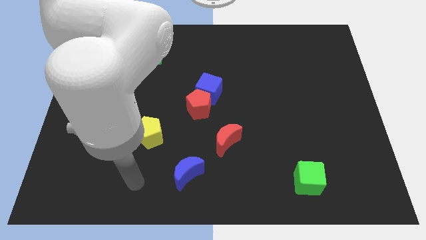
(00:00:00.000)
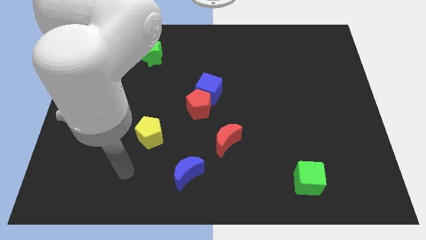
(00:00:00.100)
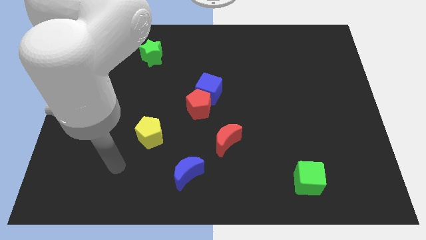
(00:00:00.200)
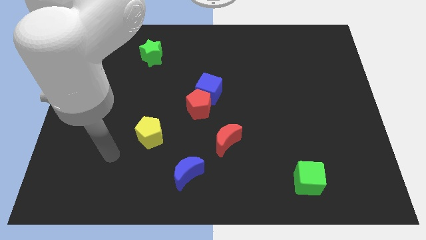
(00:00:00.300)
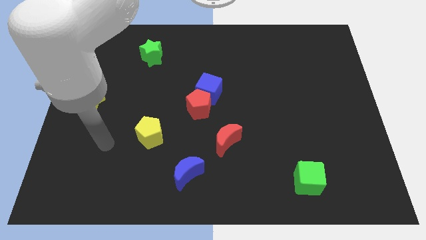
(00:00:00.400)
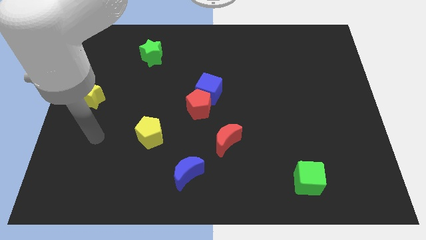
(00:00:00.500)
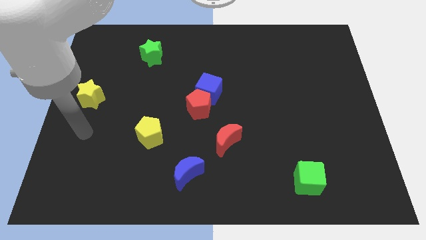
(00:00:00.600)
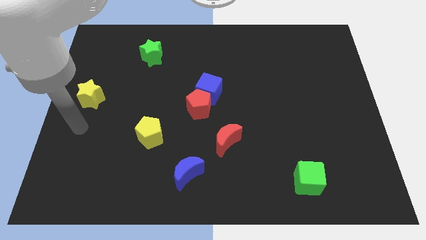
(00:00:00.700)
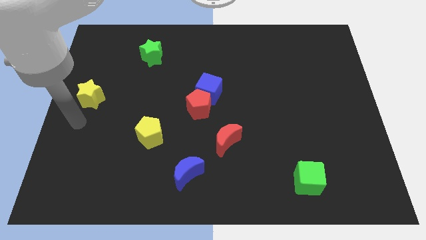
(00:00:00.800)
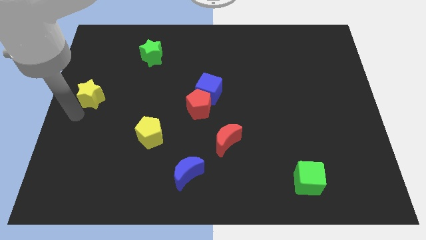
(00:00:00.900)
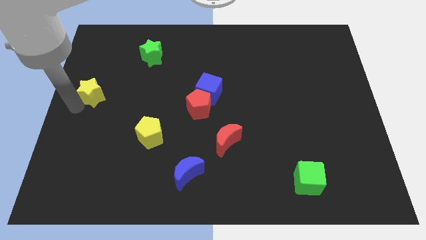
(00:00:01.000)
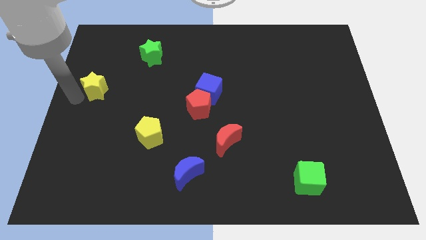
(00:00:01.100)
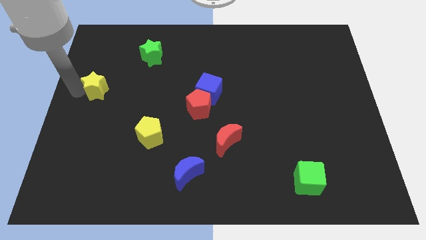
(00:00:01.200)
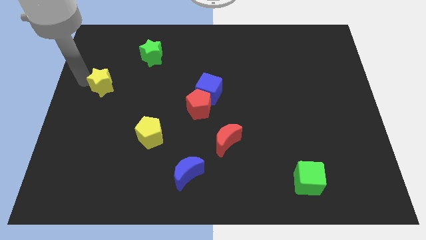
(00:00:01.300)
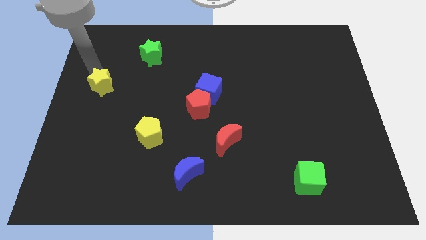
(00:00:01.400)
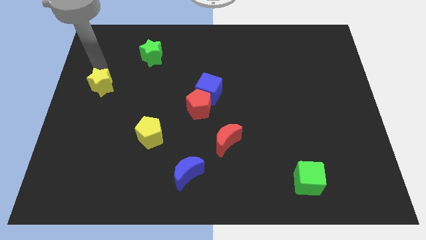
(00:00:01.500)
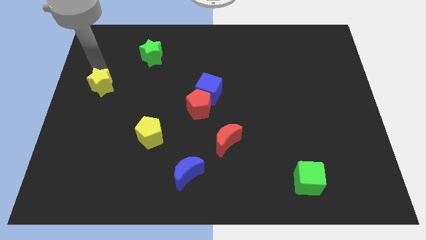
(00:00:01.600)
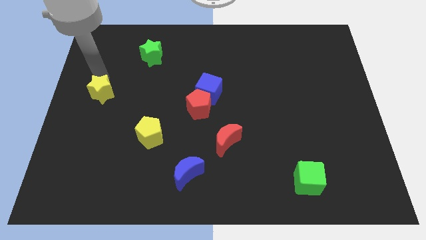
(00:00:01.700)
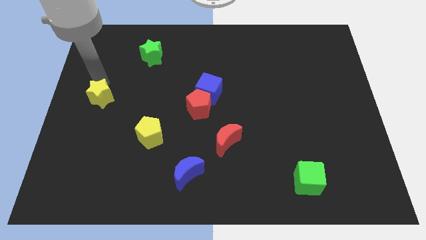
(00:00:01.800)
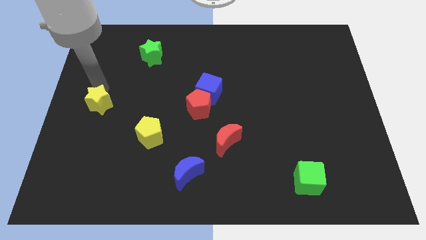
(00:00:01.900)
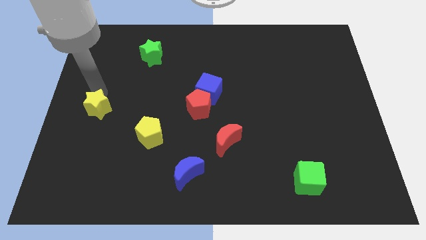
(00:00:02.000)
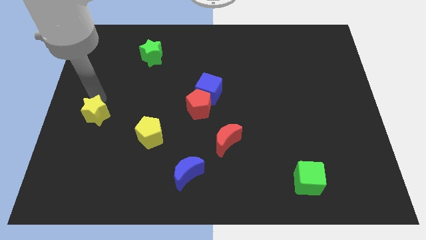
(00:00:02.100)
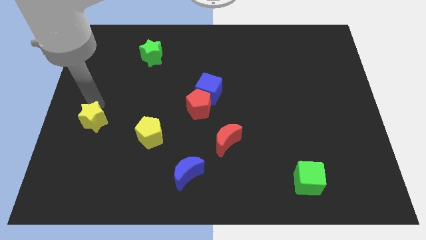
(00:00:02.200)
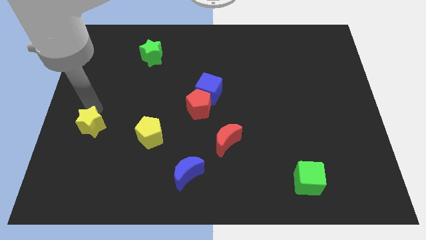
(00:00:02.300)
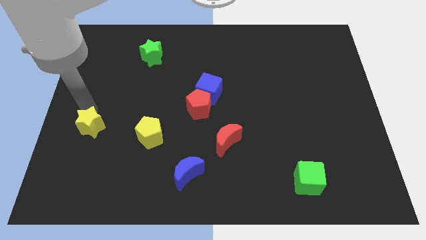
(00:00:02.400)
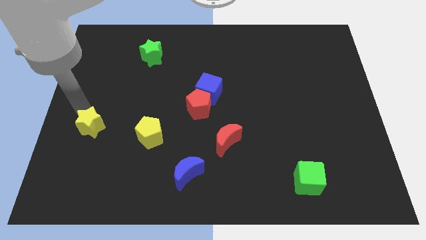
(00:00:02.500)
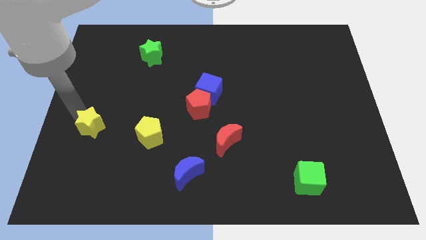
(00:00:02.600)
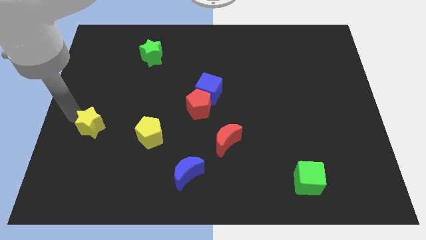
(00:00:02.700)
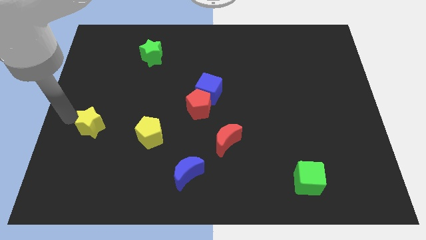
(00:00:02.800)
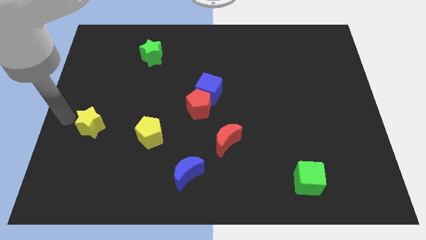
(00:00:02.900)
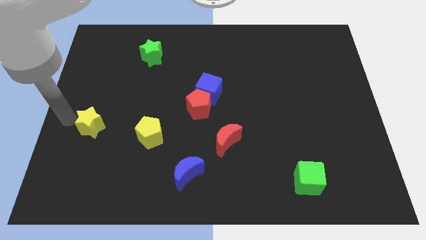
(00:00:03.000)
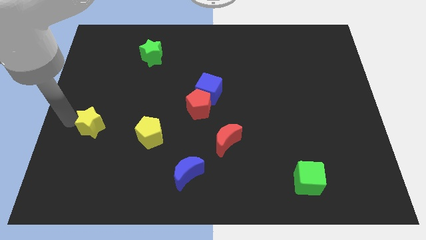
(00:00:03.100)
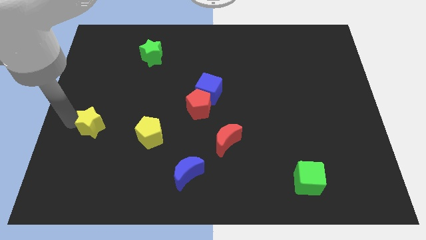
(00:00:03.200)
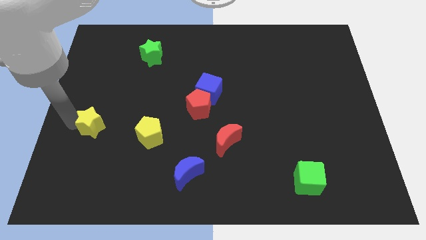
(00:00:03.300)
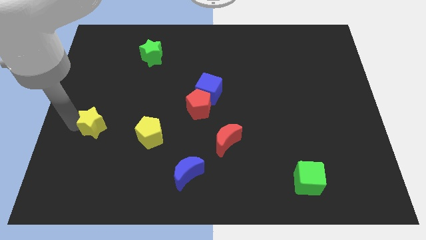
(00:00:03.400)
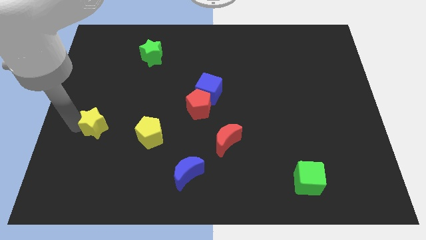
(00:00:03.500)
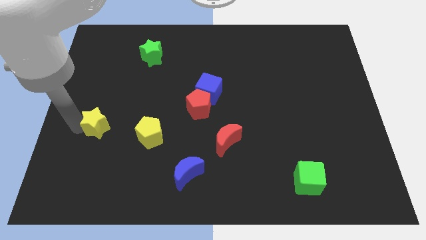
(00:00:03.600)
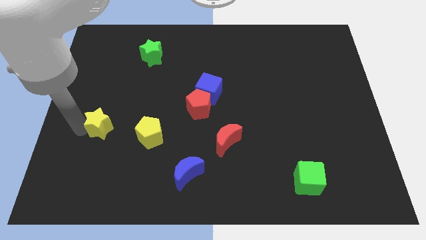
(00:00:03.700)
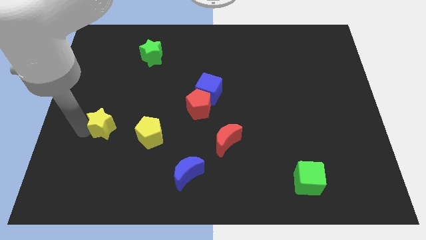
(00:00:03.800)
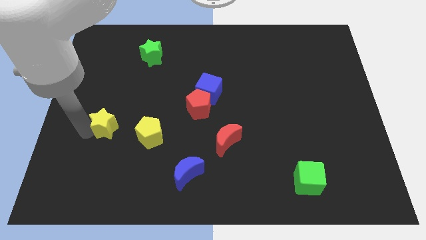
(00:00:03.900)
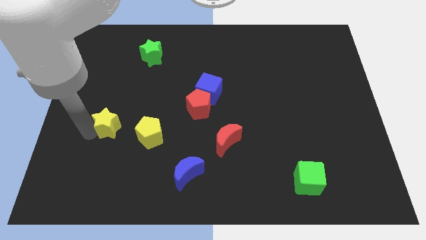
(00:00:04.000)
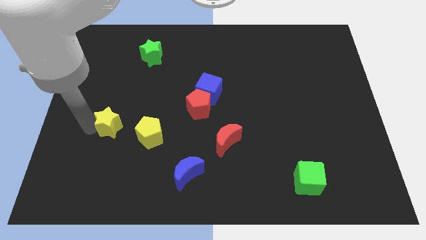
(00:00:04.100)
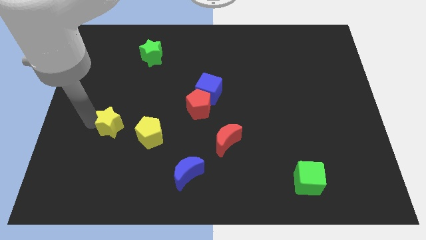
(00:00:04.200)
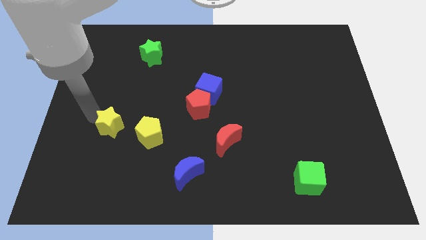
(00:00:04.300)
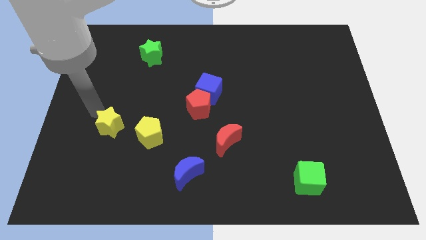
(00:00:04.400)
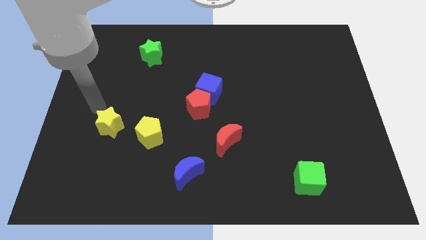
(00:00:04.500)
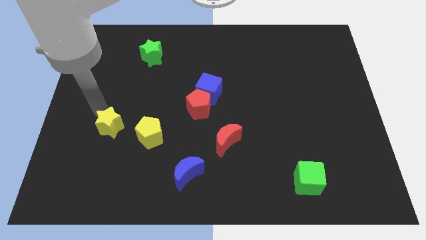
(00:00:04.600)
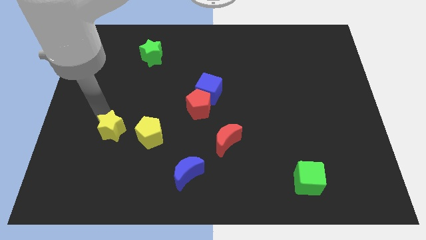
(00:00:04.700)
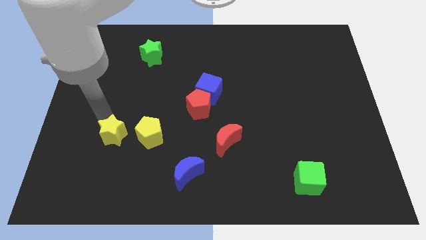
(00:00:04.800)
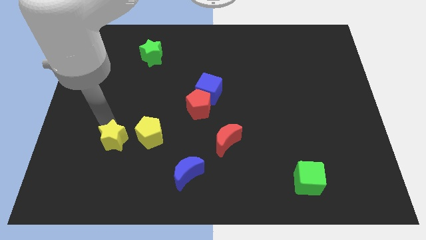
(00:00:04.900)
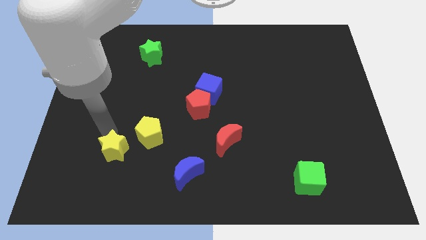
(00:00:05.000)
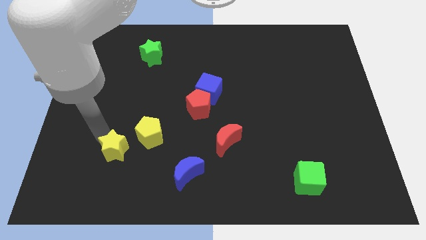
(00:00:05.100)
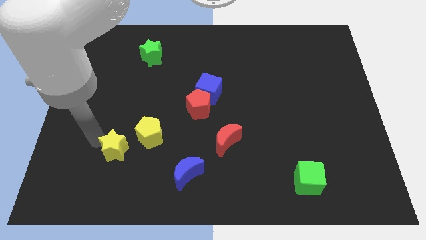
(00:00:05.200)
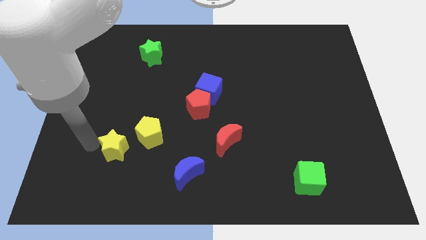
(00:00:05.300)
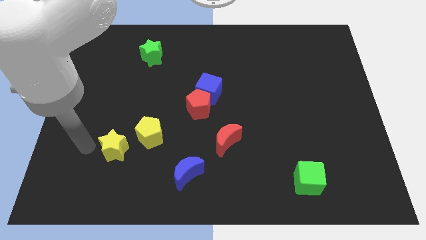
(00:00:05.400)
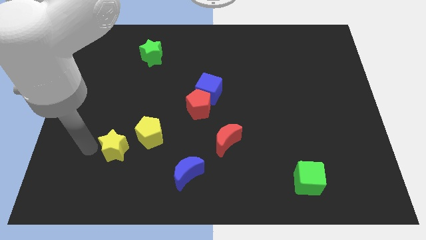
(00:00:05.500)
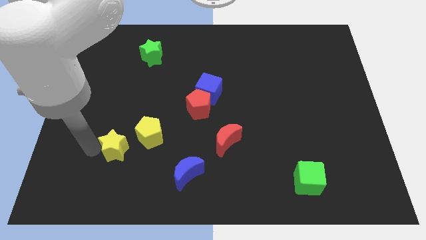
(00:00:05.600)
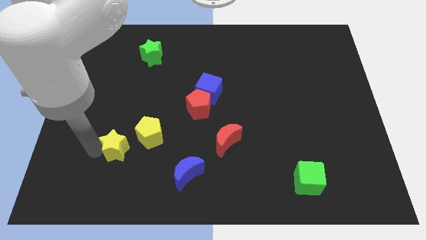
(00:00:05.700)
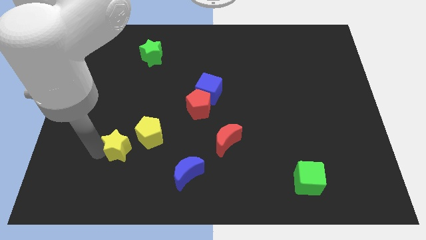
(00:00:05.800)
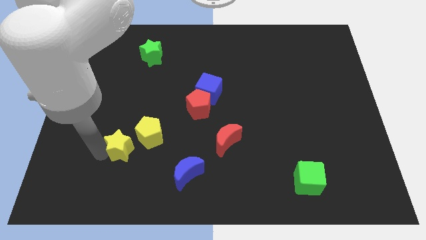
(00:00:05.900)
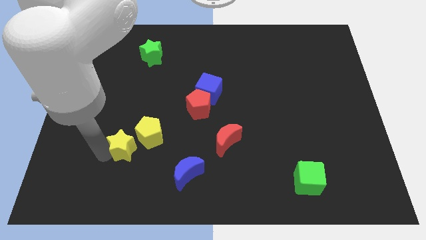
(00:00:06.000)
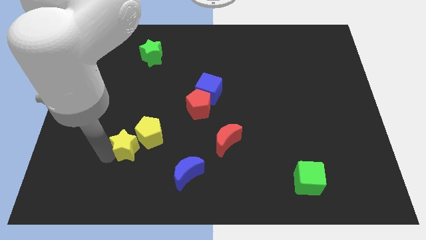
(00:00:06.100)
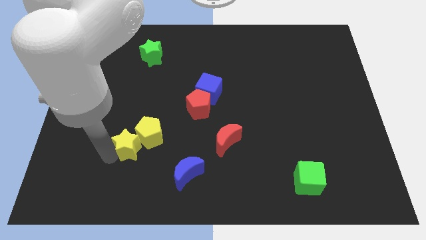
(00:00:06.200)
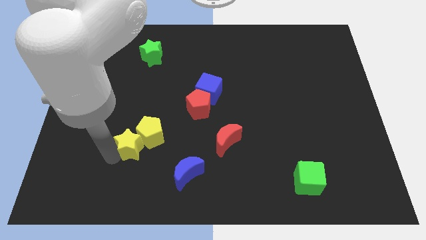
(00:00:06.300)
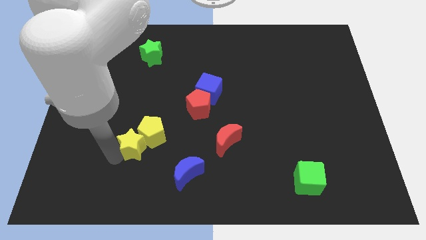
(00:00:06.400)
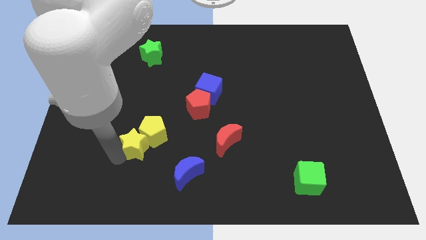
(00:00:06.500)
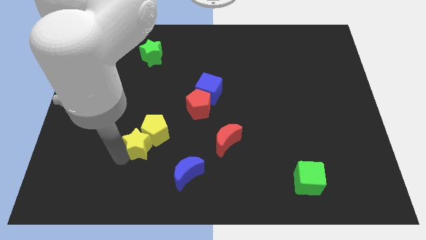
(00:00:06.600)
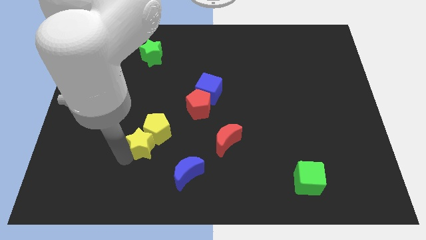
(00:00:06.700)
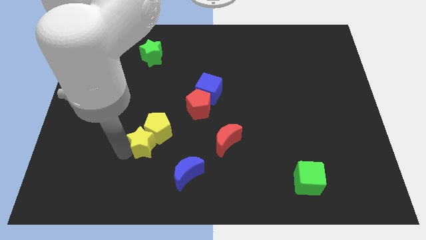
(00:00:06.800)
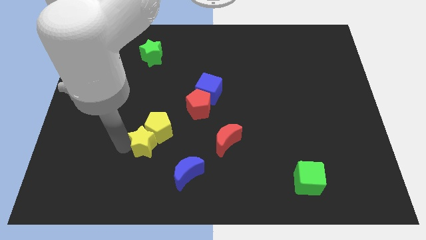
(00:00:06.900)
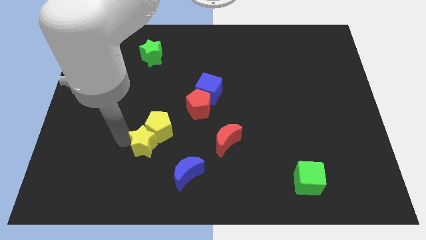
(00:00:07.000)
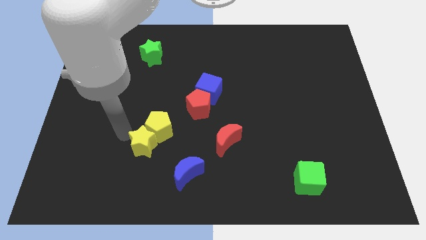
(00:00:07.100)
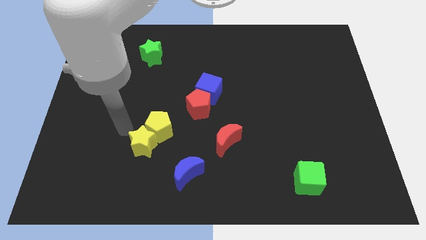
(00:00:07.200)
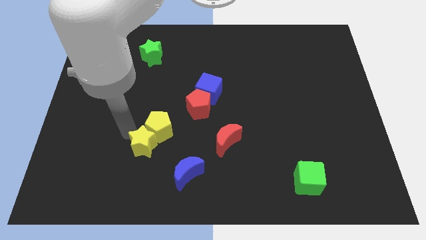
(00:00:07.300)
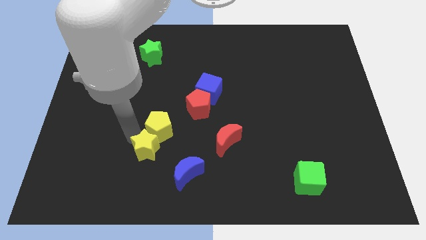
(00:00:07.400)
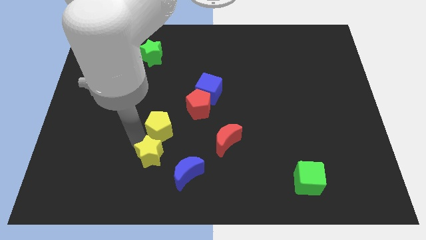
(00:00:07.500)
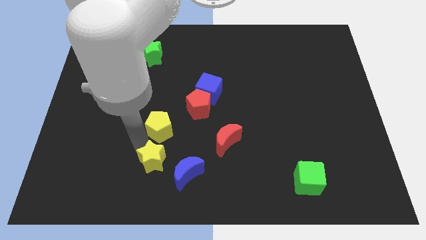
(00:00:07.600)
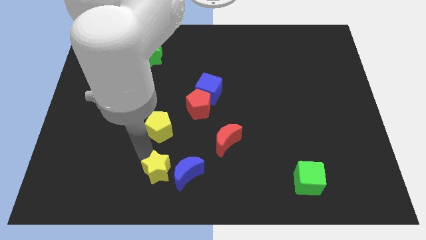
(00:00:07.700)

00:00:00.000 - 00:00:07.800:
slide the yellow star next to the blue moon
